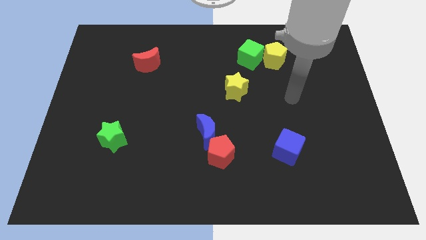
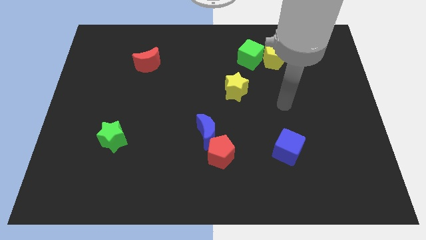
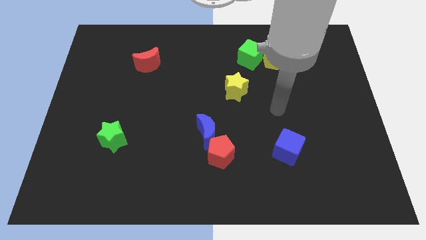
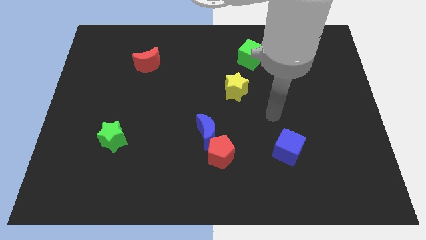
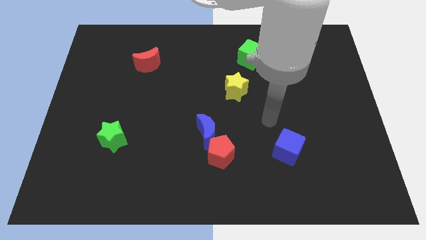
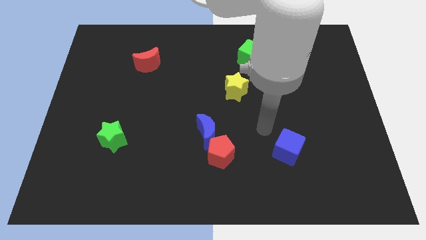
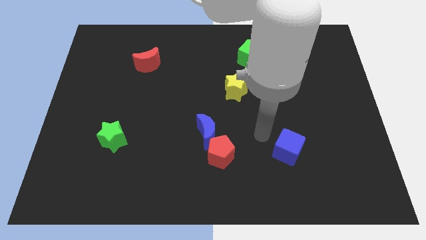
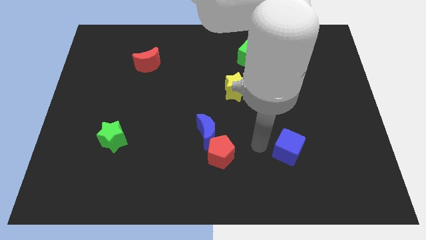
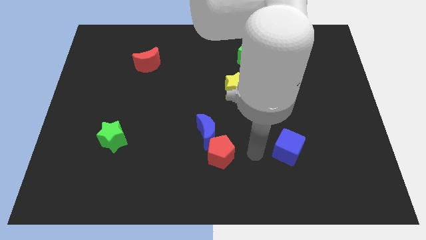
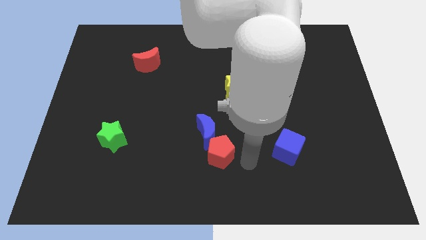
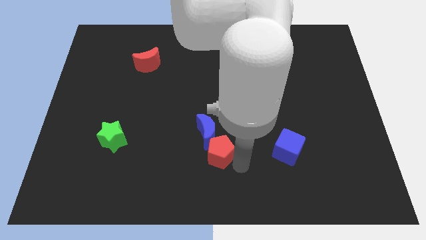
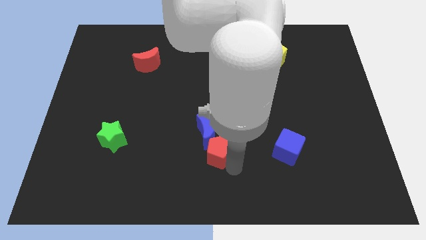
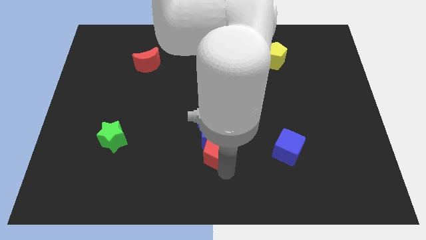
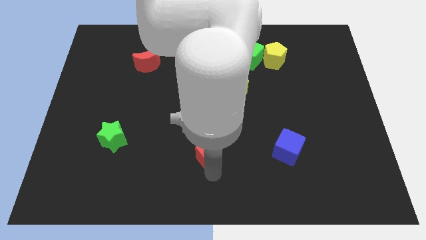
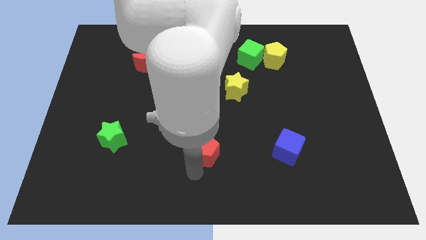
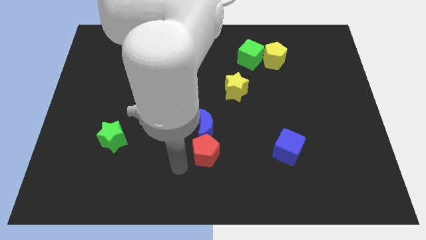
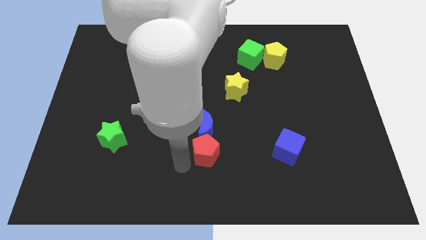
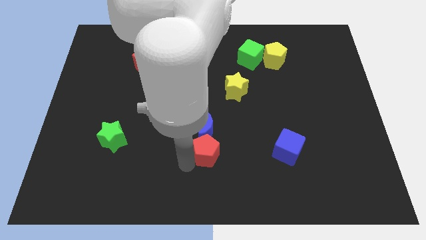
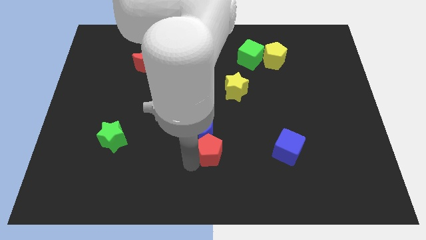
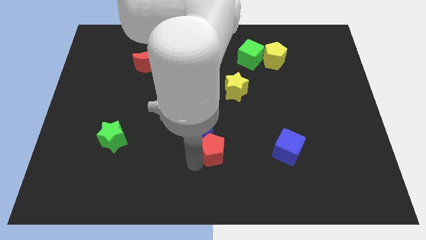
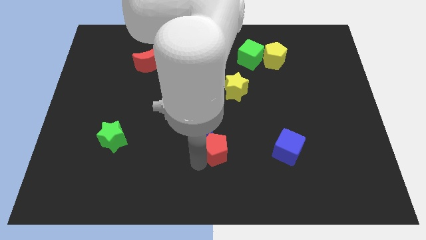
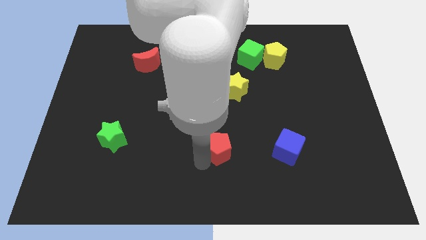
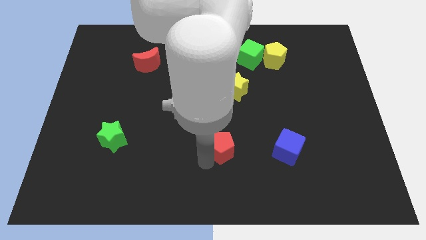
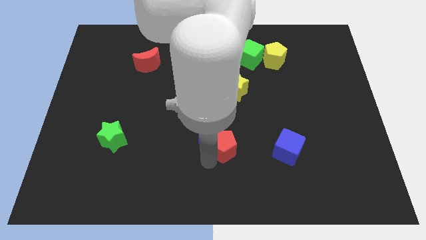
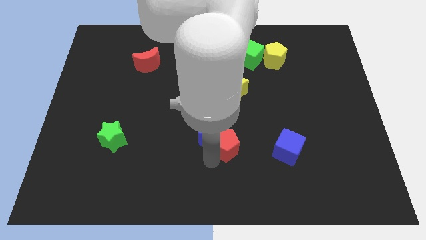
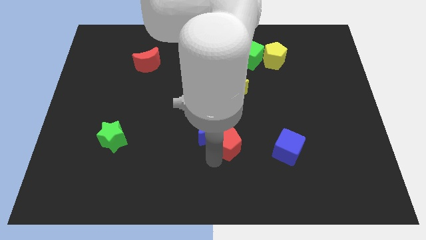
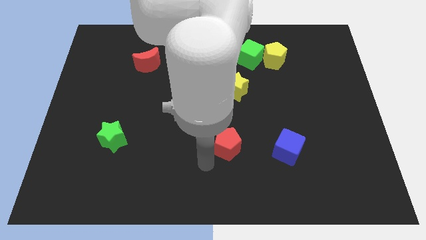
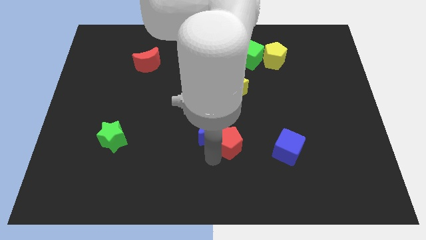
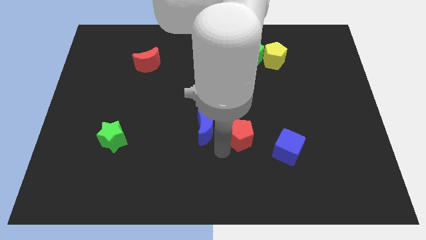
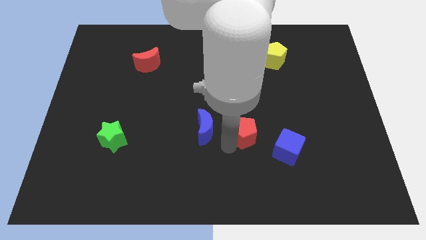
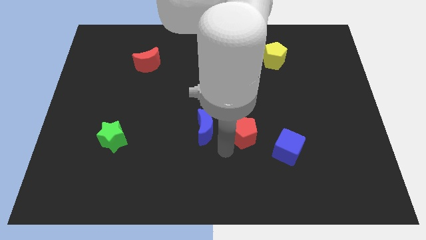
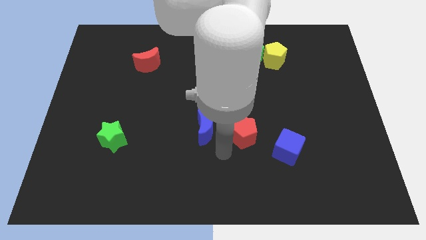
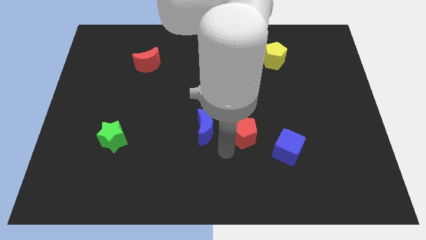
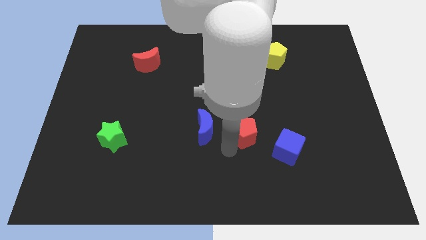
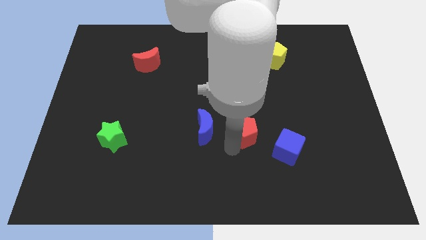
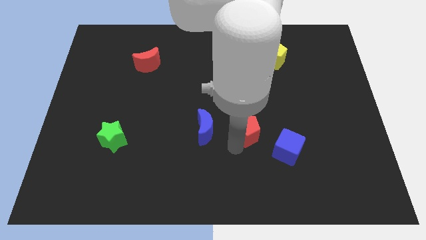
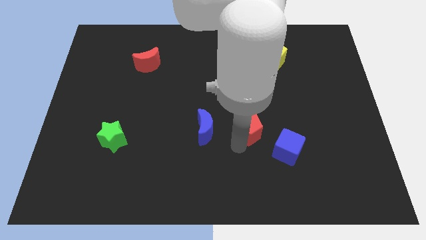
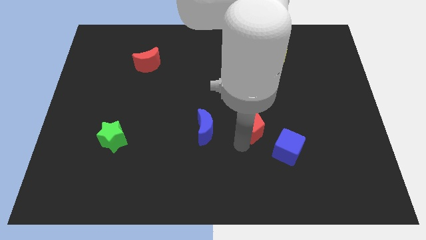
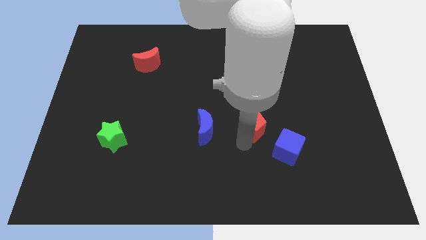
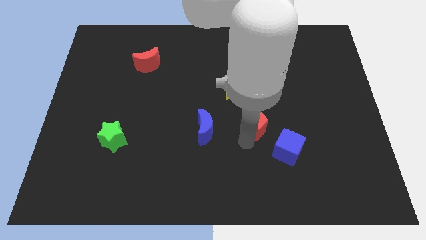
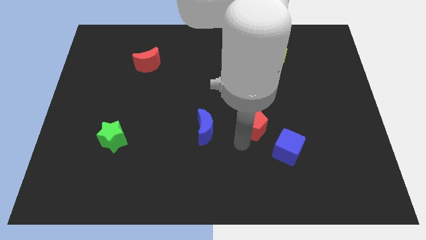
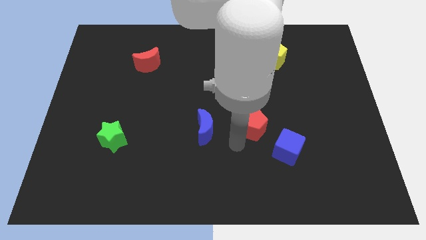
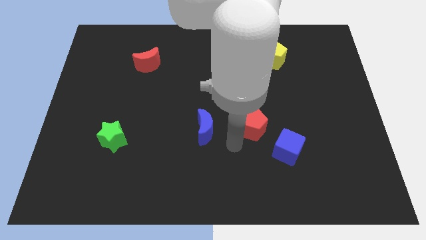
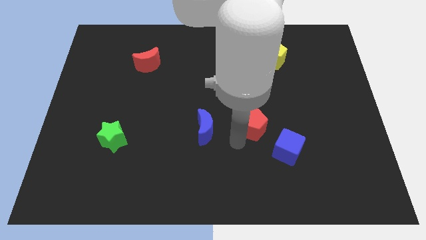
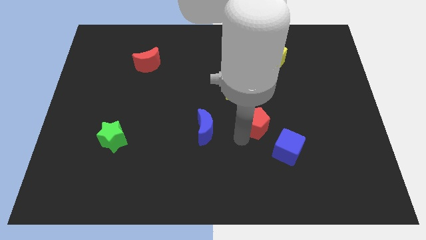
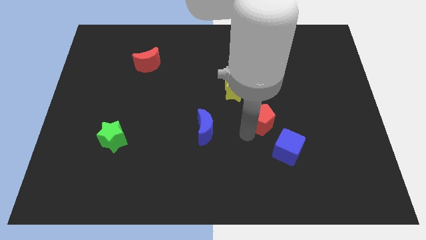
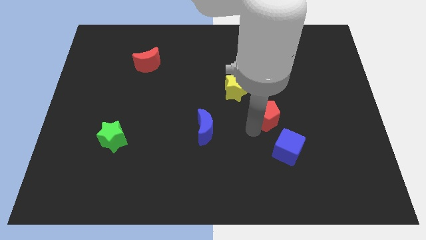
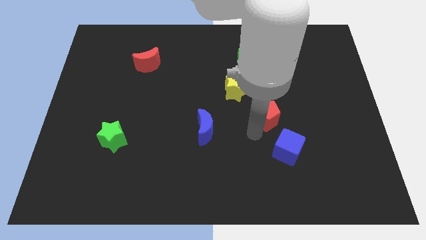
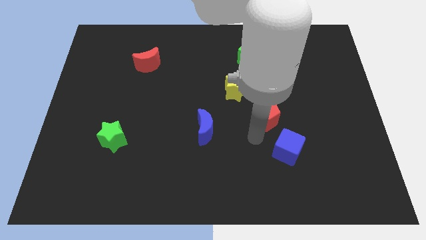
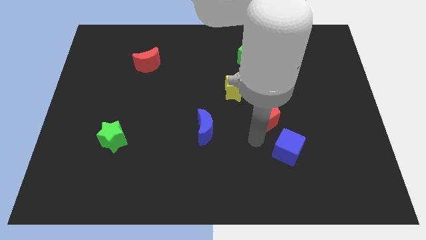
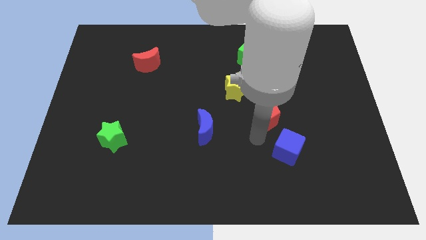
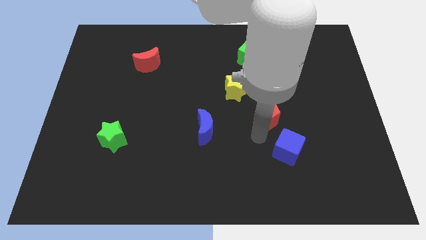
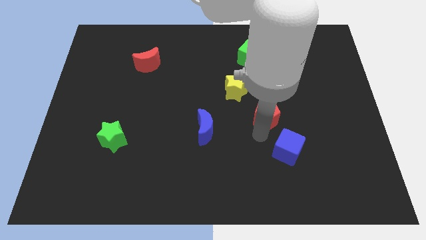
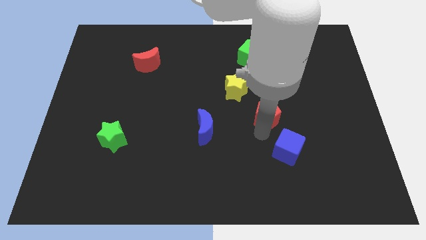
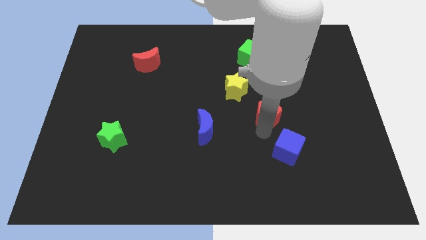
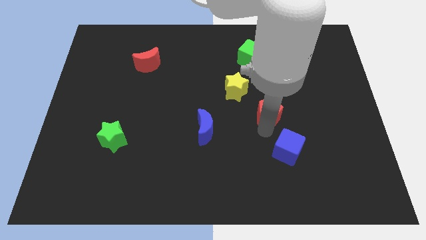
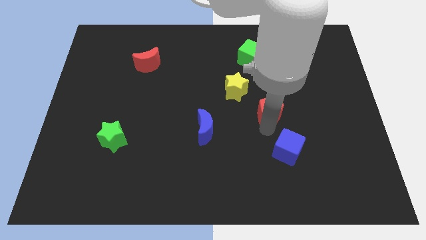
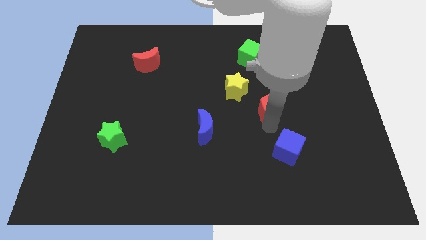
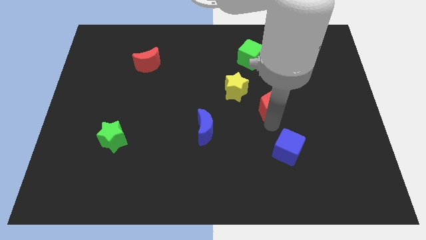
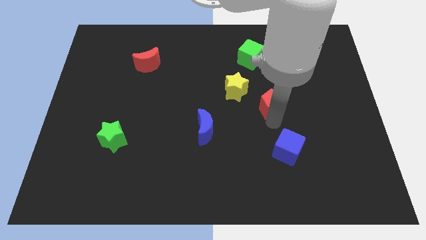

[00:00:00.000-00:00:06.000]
put the red pentagon to the bottom of the yellow pentagon

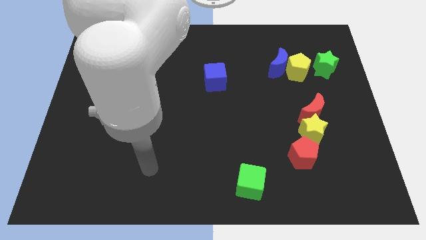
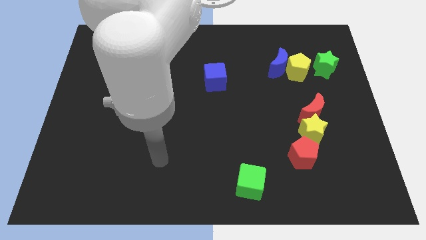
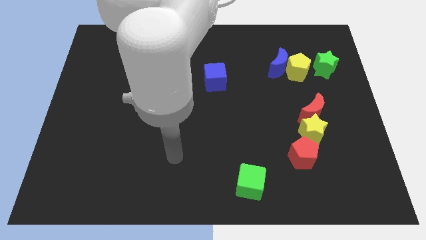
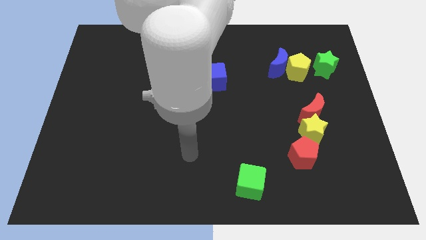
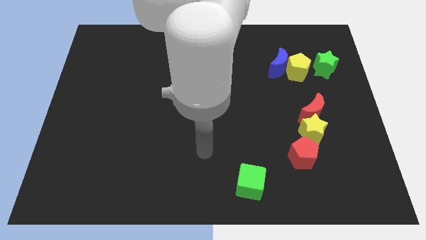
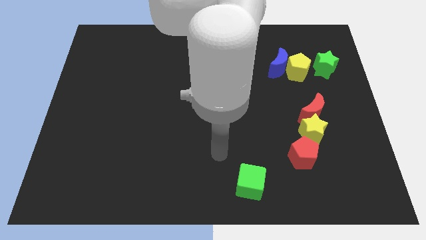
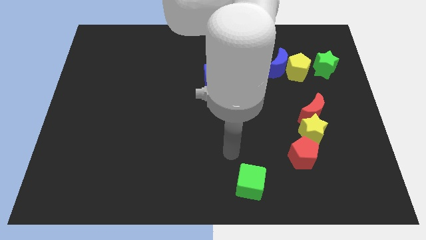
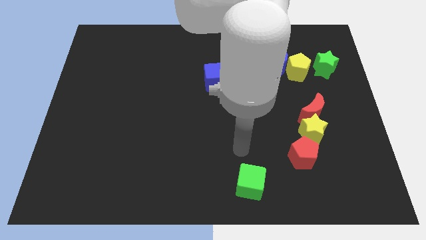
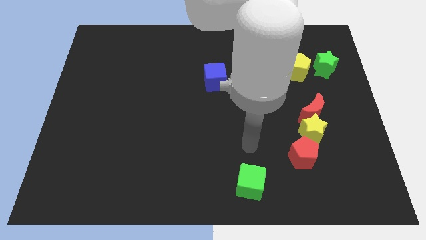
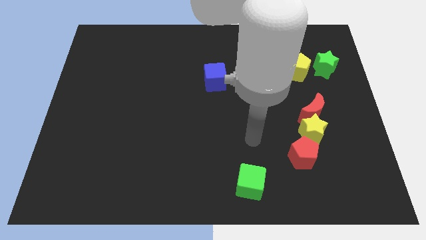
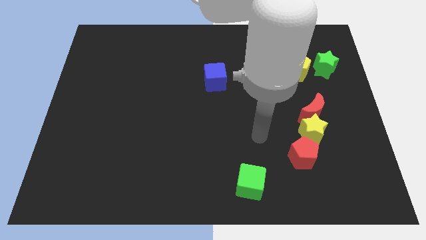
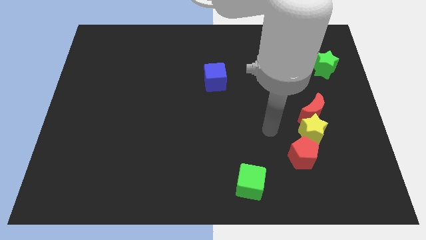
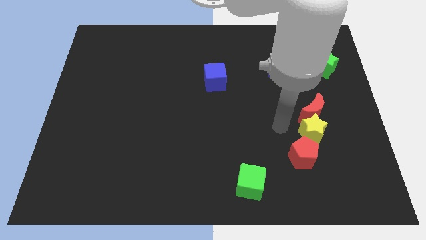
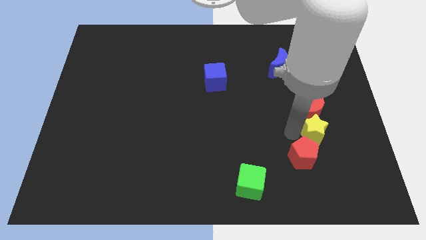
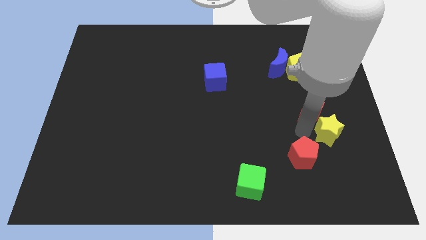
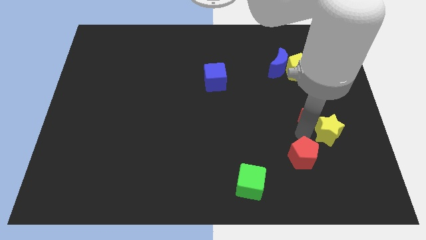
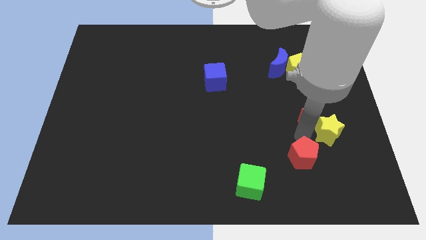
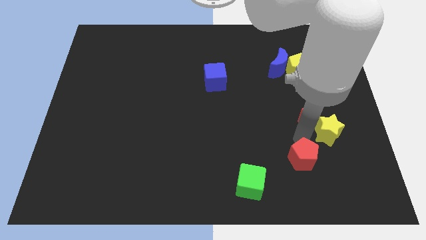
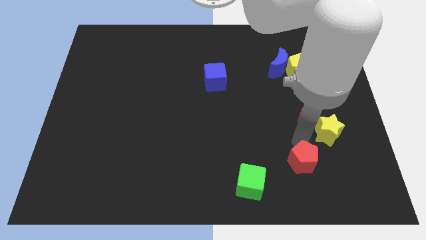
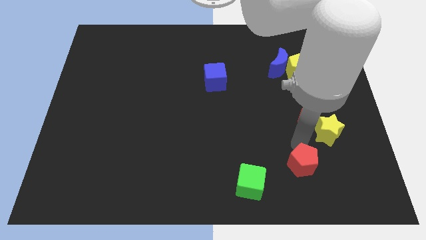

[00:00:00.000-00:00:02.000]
slide the red pentagon right of the green cube
